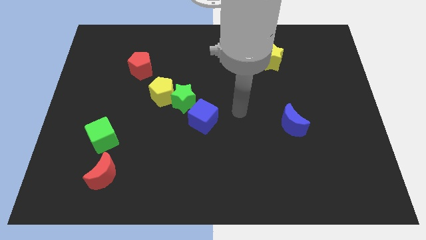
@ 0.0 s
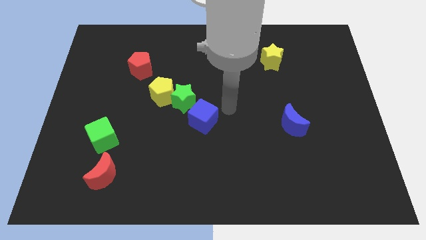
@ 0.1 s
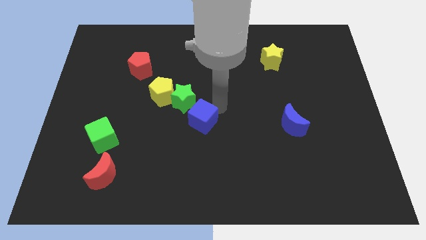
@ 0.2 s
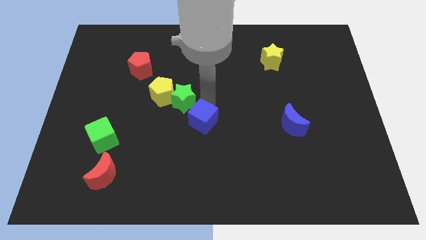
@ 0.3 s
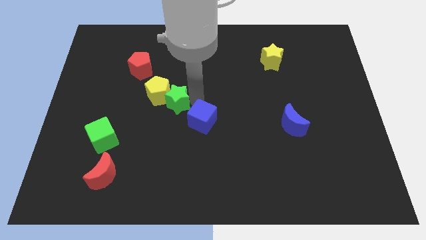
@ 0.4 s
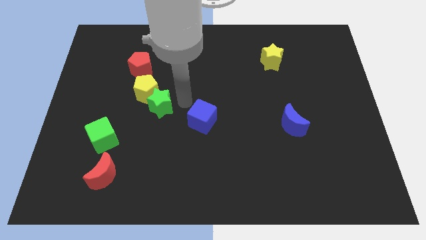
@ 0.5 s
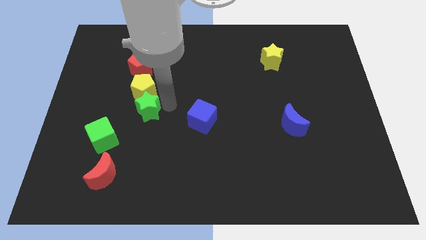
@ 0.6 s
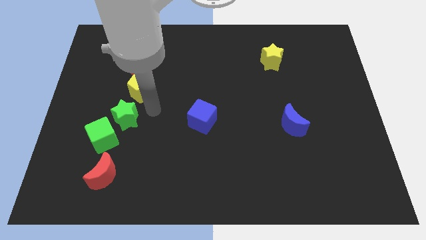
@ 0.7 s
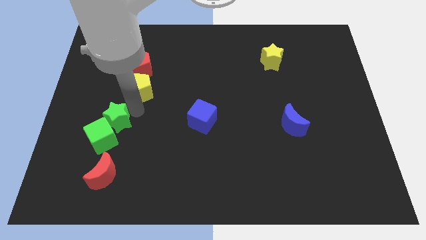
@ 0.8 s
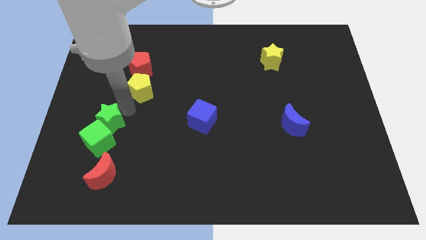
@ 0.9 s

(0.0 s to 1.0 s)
pull the yellow pentagon apart from the green star

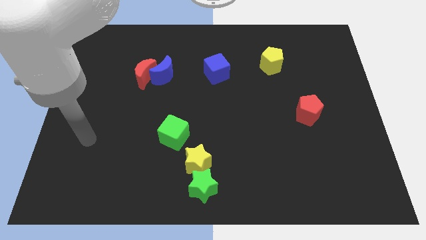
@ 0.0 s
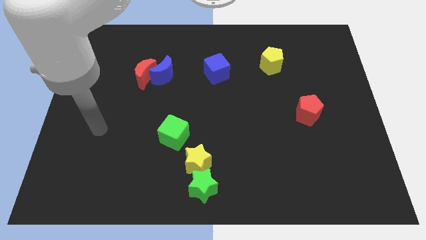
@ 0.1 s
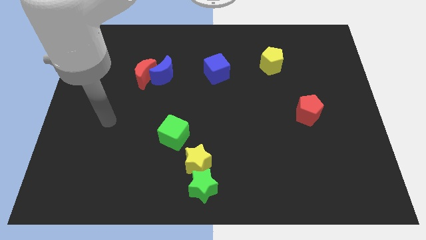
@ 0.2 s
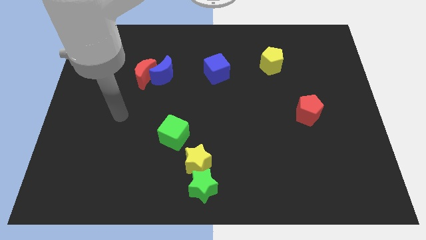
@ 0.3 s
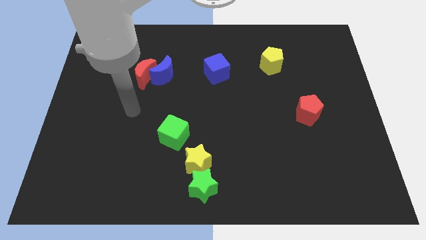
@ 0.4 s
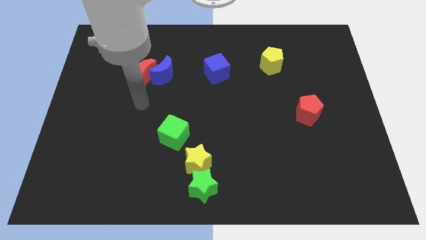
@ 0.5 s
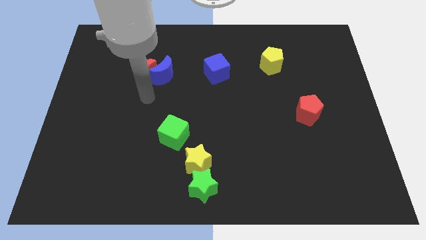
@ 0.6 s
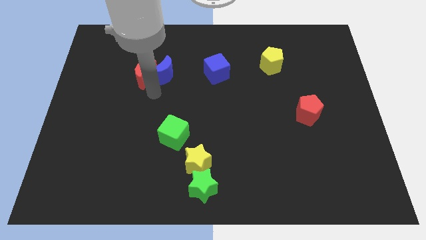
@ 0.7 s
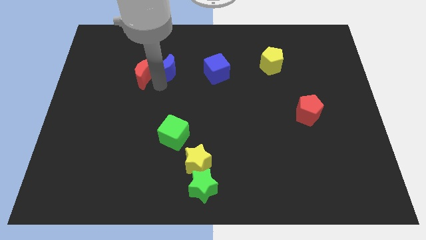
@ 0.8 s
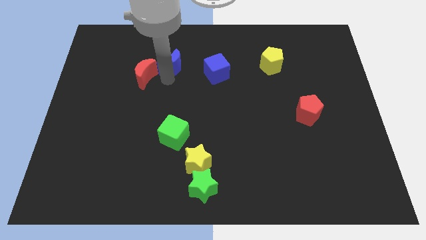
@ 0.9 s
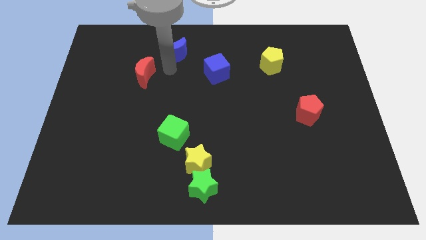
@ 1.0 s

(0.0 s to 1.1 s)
pull the red moon apart from the blue moon

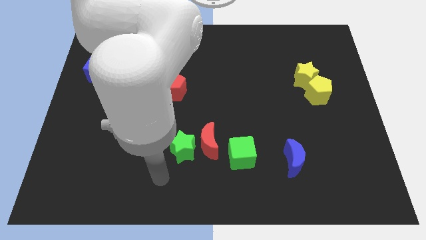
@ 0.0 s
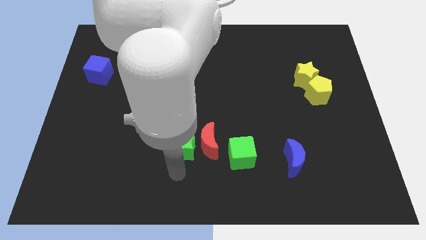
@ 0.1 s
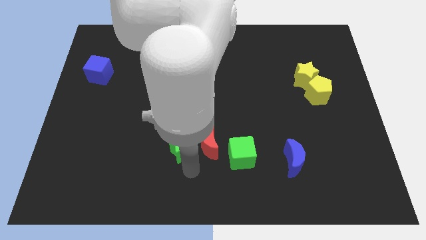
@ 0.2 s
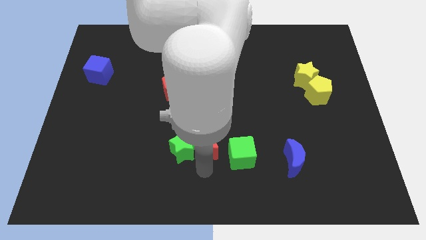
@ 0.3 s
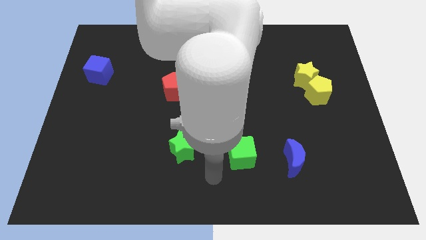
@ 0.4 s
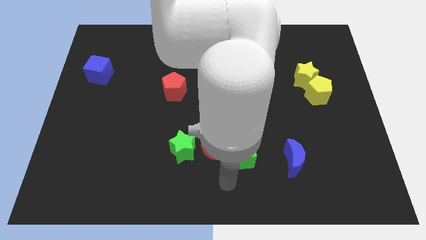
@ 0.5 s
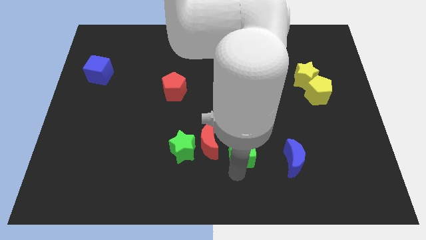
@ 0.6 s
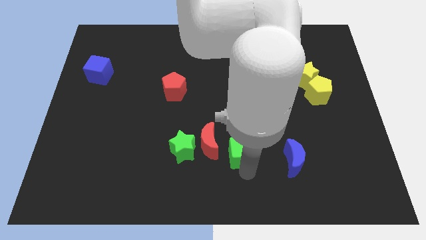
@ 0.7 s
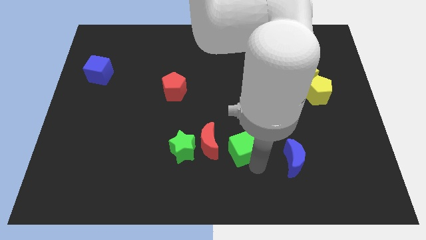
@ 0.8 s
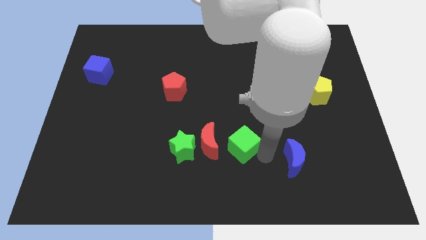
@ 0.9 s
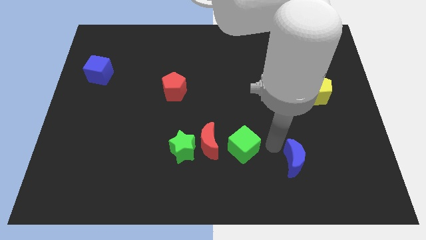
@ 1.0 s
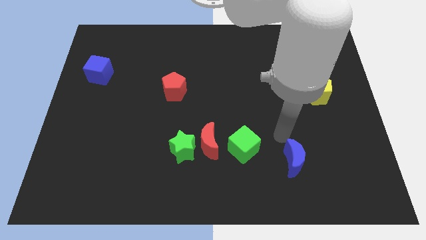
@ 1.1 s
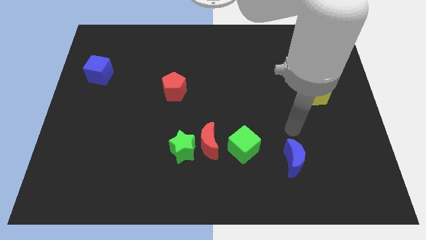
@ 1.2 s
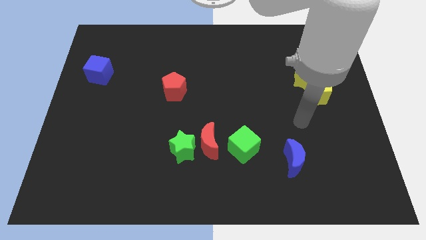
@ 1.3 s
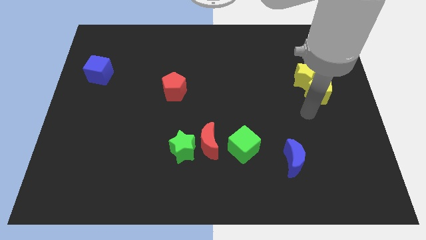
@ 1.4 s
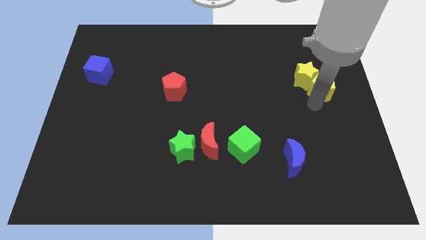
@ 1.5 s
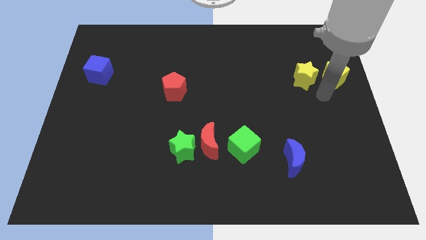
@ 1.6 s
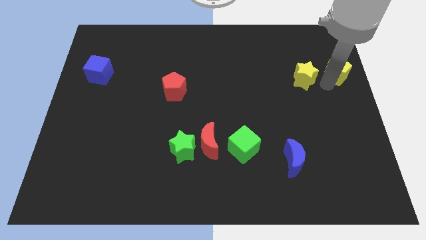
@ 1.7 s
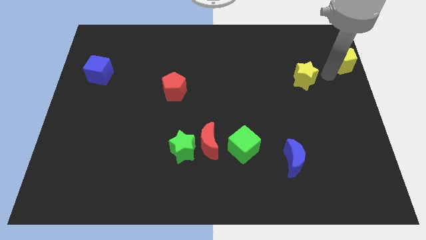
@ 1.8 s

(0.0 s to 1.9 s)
pull the yellow star apart from the yellow pentagon

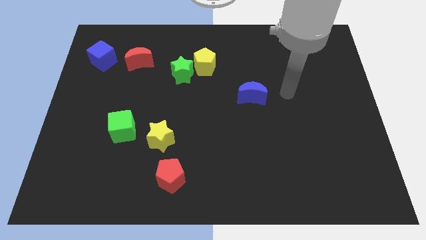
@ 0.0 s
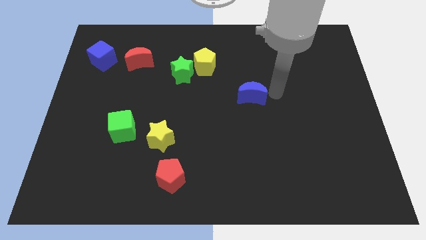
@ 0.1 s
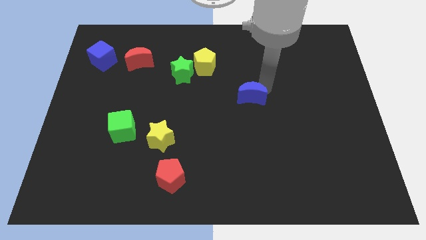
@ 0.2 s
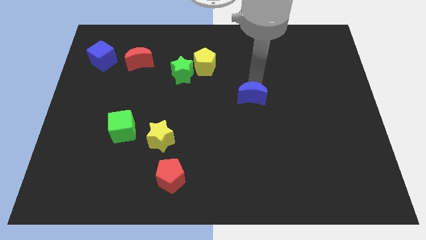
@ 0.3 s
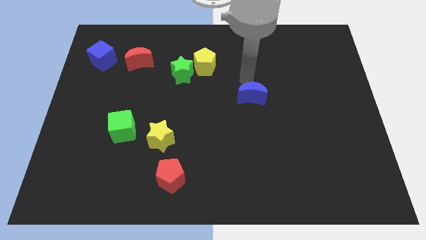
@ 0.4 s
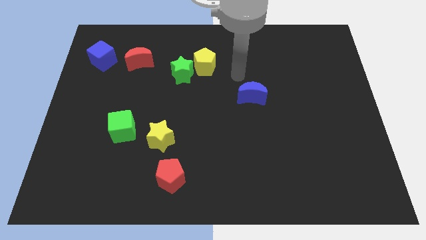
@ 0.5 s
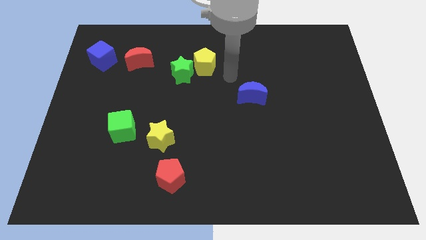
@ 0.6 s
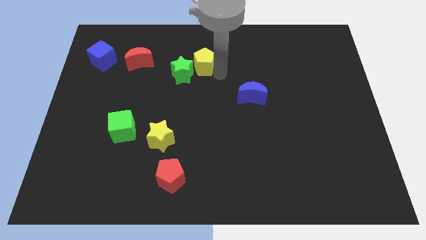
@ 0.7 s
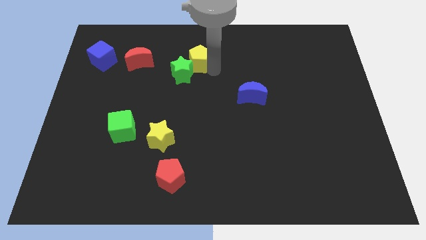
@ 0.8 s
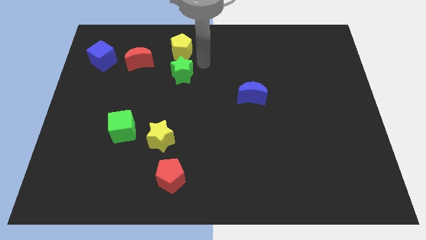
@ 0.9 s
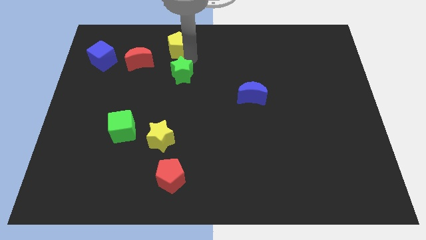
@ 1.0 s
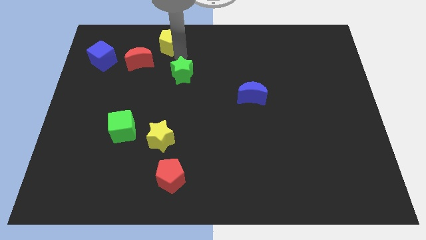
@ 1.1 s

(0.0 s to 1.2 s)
separate the green star from the yellow pentagon

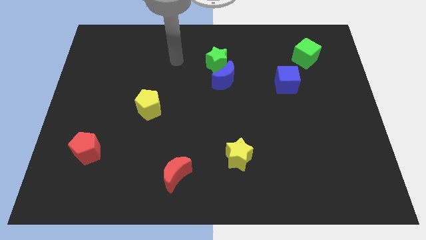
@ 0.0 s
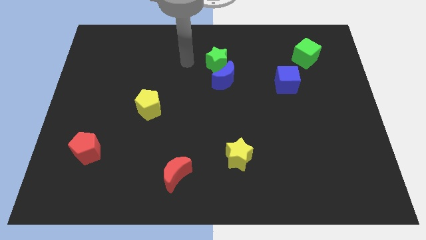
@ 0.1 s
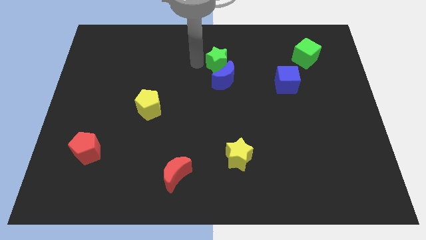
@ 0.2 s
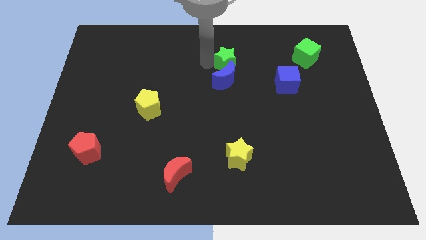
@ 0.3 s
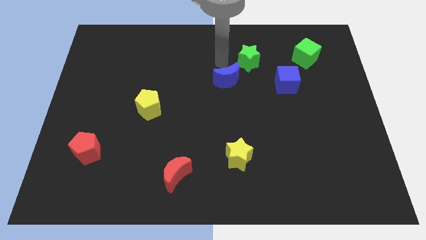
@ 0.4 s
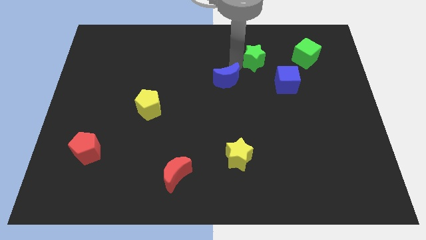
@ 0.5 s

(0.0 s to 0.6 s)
move the blue moon away from the green star

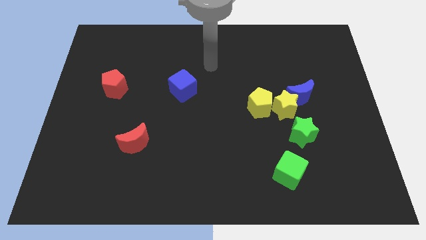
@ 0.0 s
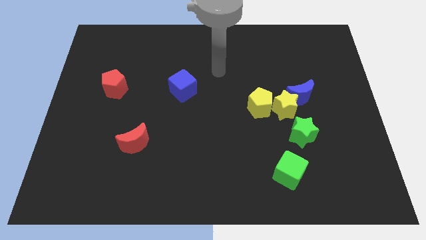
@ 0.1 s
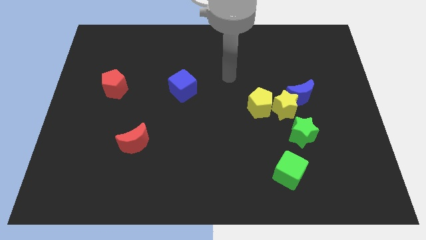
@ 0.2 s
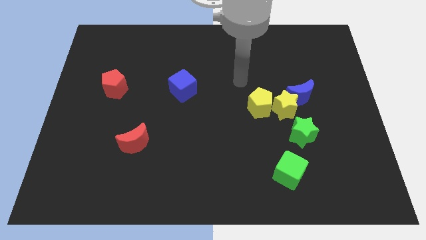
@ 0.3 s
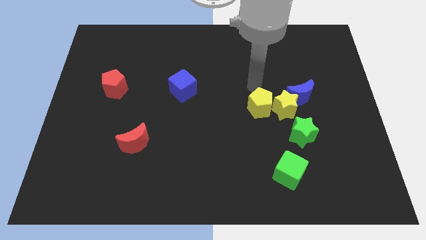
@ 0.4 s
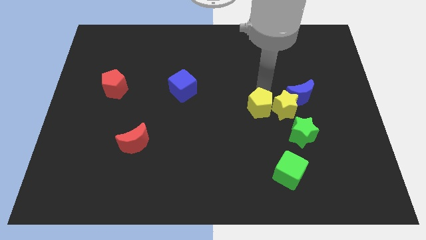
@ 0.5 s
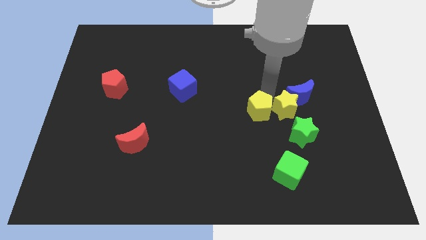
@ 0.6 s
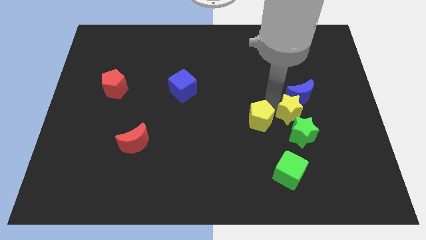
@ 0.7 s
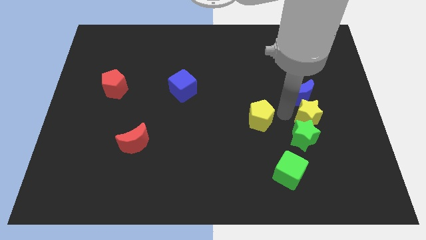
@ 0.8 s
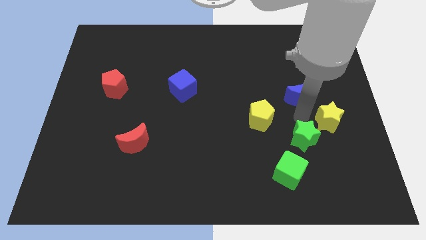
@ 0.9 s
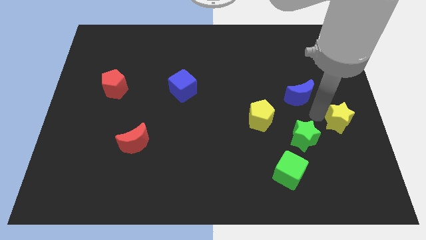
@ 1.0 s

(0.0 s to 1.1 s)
pull the blue moon apart from the yellow star

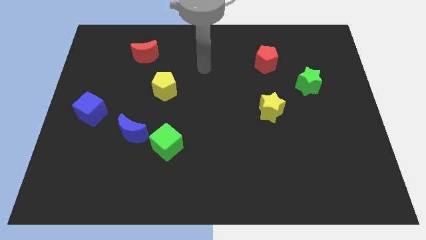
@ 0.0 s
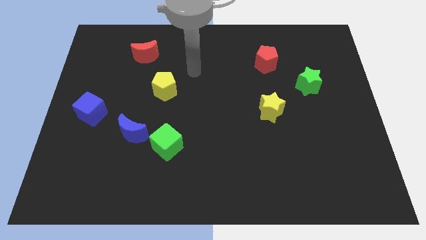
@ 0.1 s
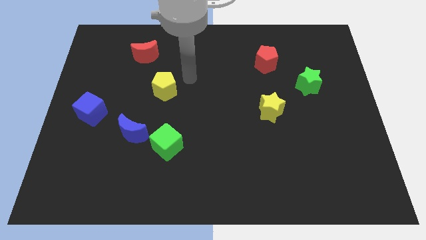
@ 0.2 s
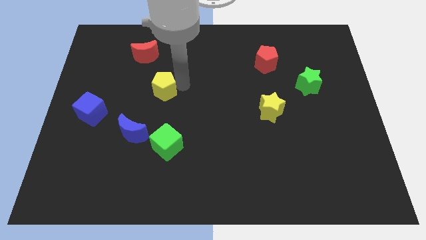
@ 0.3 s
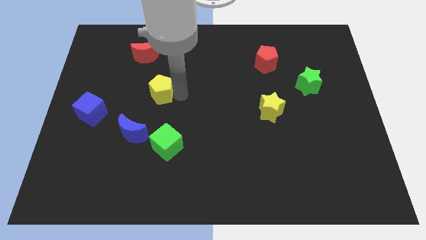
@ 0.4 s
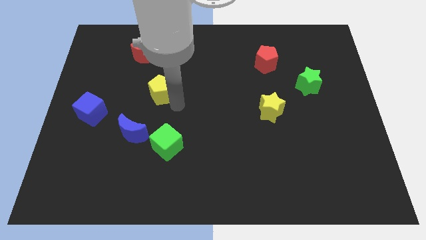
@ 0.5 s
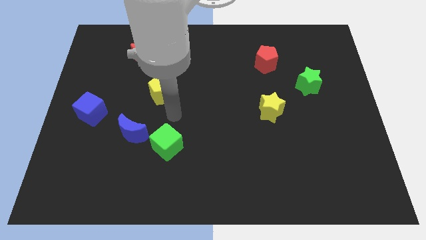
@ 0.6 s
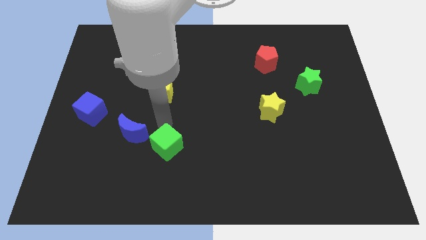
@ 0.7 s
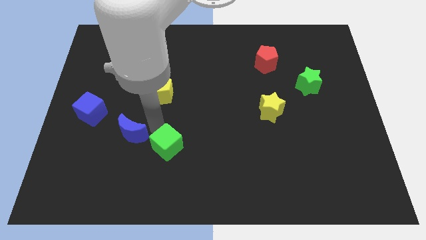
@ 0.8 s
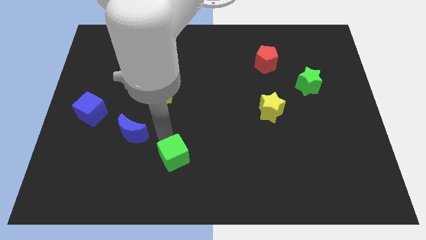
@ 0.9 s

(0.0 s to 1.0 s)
separate the blue moon from the green cube

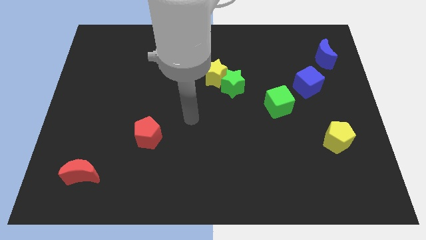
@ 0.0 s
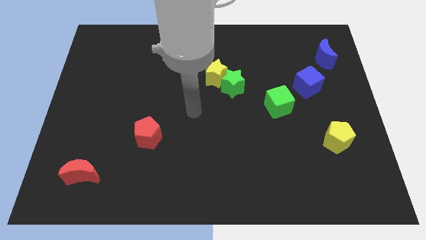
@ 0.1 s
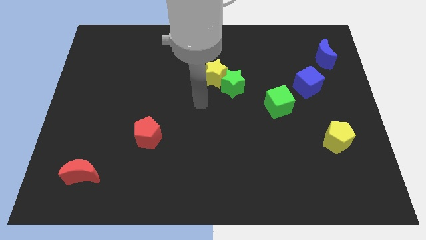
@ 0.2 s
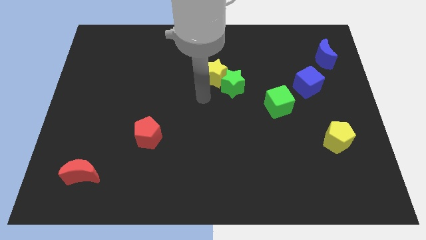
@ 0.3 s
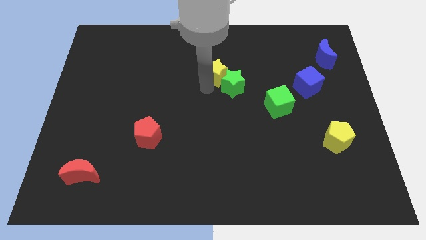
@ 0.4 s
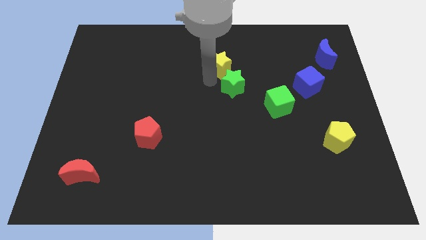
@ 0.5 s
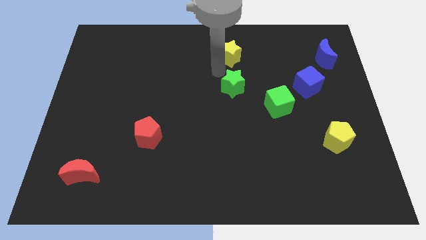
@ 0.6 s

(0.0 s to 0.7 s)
separate the green star from the yellow star

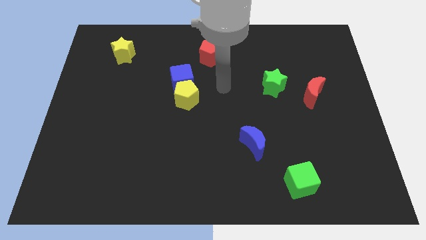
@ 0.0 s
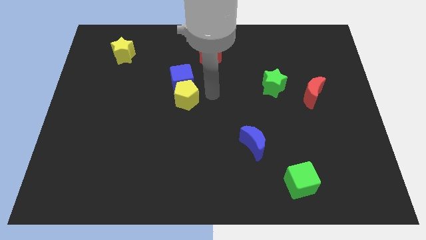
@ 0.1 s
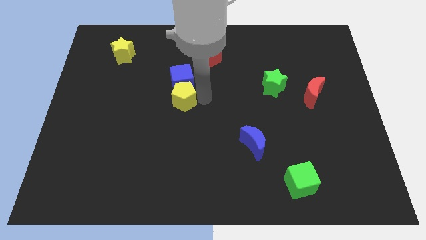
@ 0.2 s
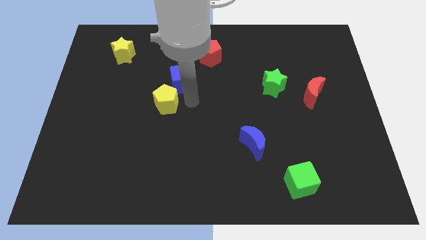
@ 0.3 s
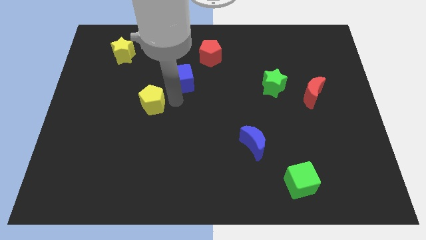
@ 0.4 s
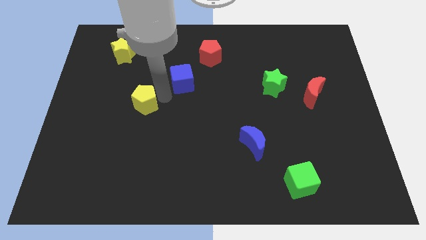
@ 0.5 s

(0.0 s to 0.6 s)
separate the blue cube from the yellow pentagon
